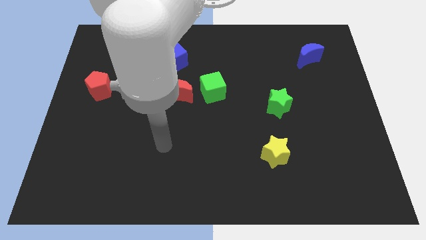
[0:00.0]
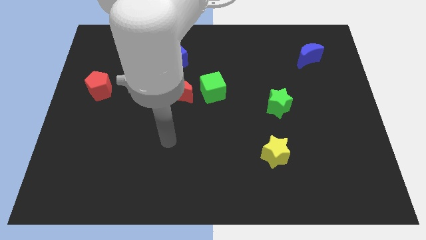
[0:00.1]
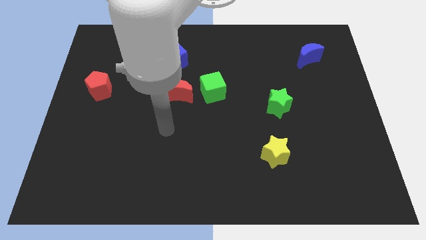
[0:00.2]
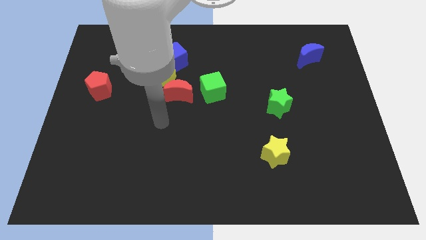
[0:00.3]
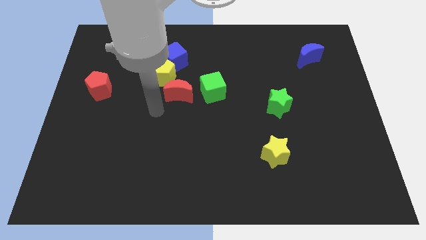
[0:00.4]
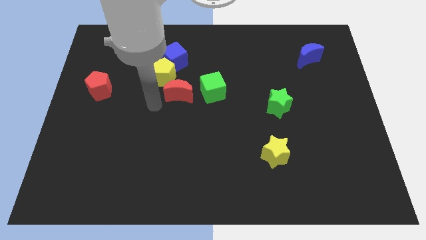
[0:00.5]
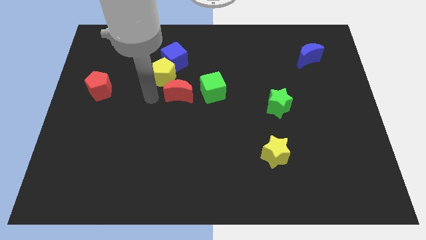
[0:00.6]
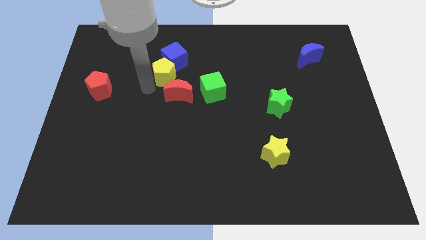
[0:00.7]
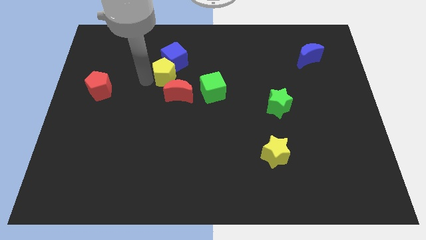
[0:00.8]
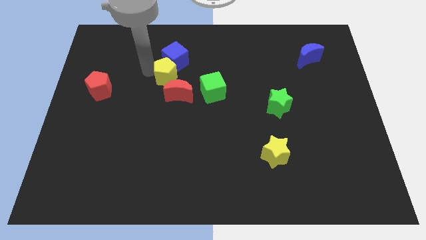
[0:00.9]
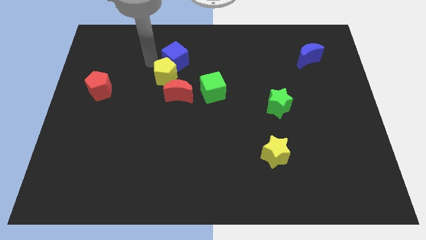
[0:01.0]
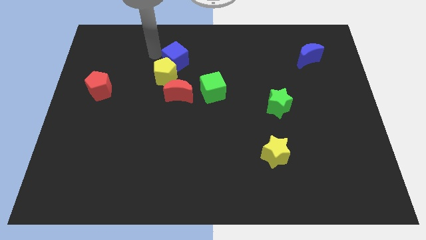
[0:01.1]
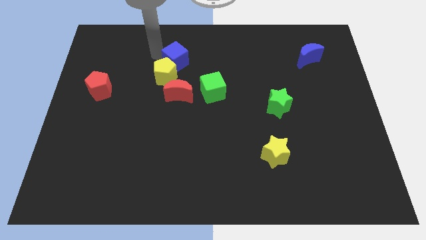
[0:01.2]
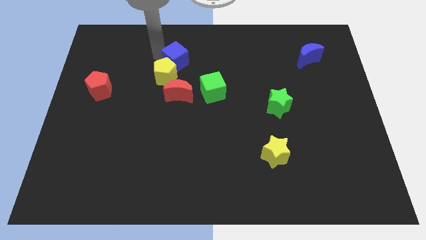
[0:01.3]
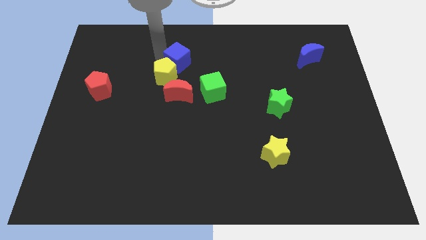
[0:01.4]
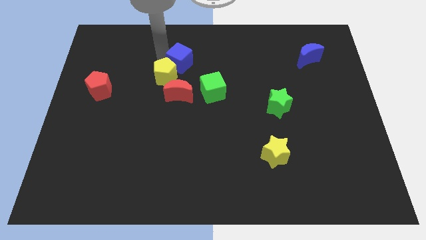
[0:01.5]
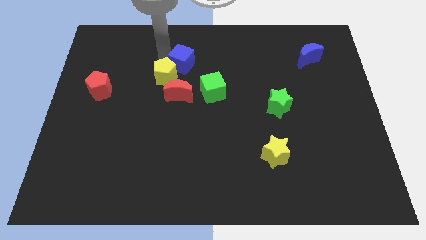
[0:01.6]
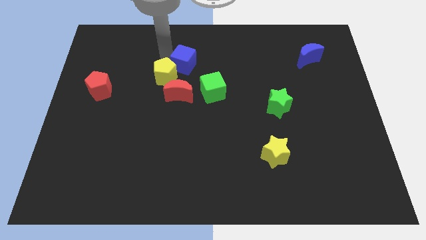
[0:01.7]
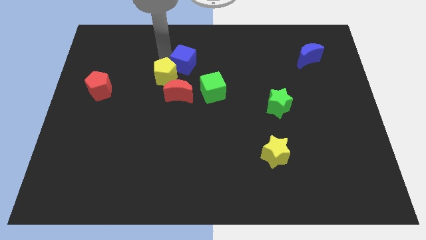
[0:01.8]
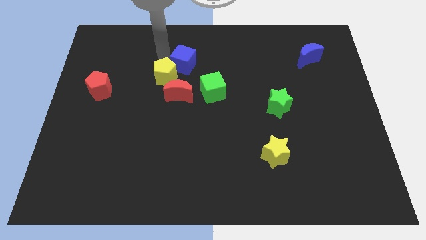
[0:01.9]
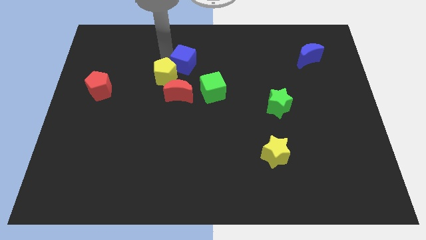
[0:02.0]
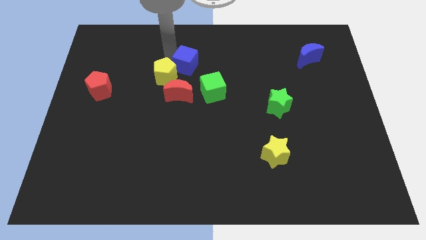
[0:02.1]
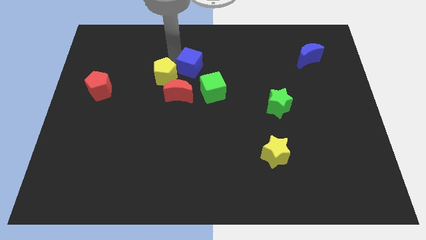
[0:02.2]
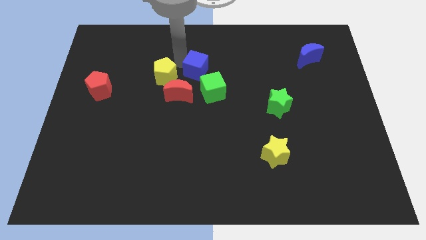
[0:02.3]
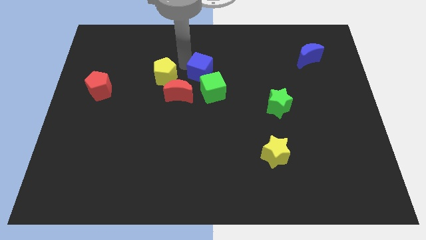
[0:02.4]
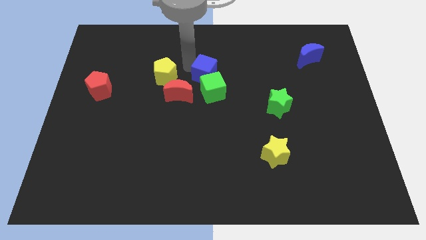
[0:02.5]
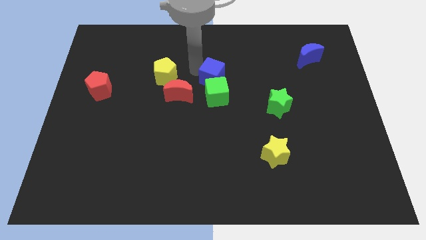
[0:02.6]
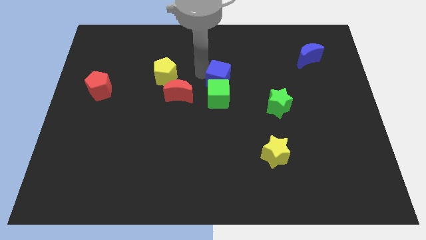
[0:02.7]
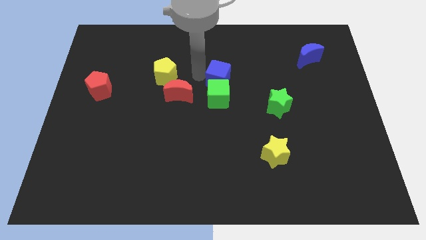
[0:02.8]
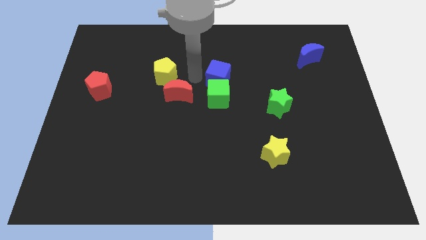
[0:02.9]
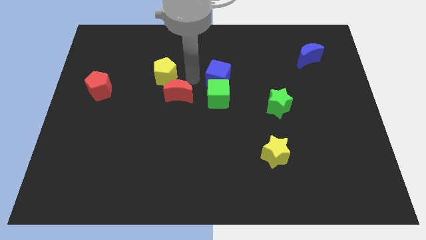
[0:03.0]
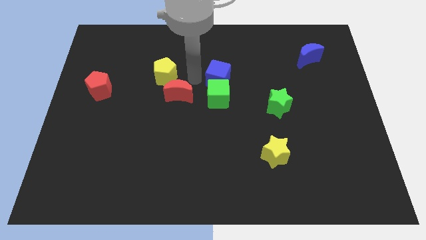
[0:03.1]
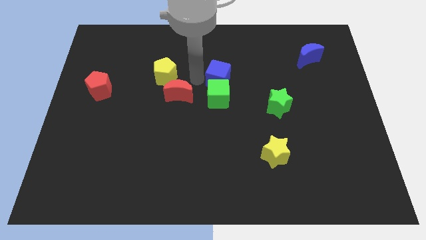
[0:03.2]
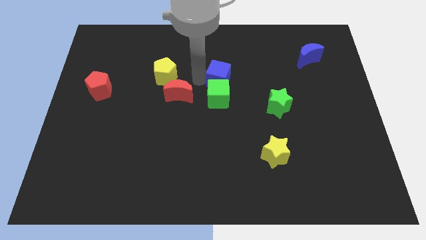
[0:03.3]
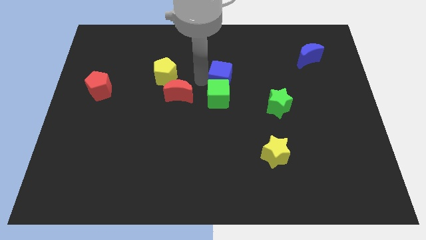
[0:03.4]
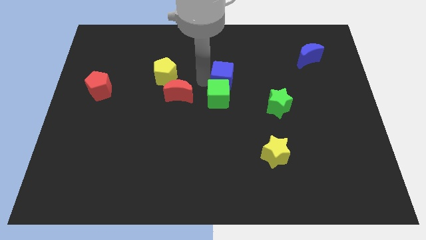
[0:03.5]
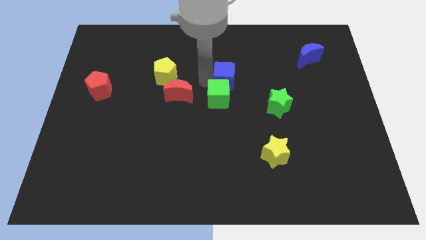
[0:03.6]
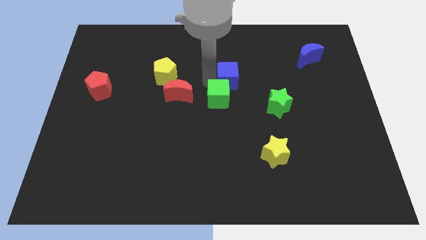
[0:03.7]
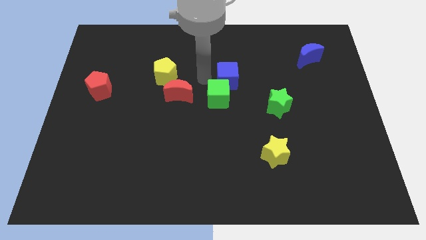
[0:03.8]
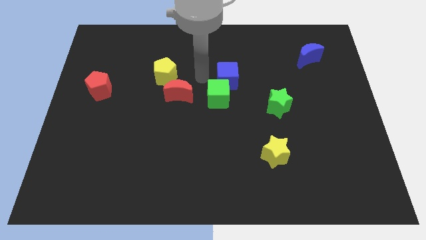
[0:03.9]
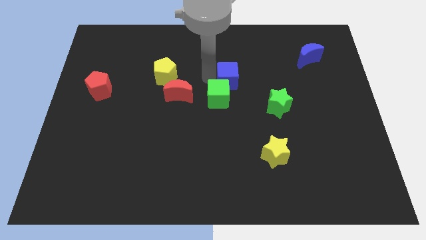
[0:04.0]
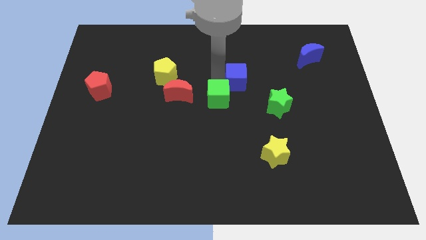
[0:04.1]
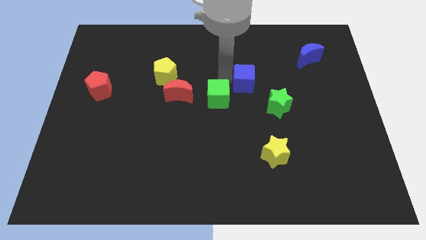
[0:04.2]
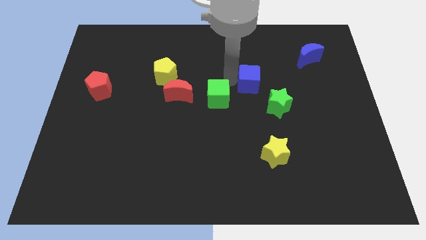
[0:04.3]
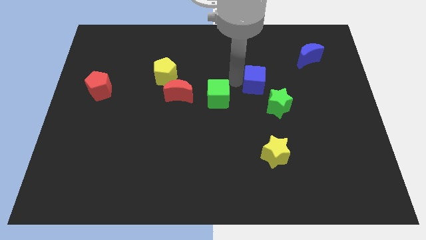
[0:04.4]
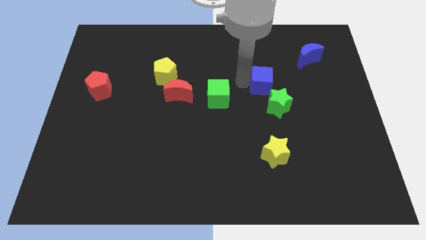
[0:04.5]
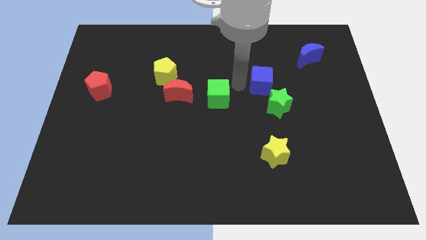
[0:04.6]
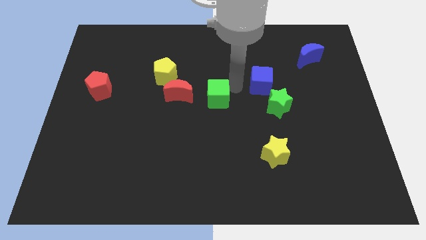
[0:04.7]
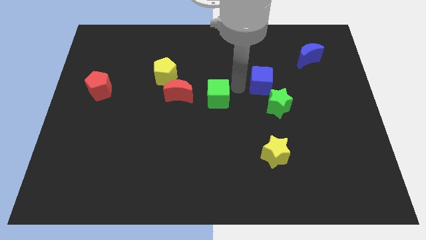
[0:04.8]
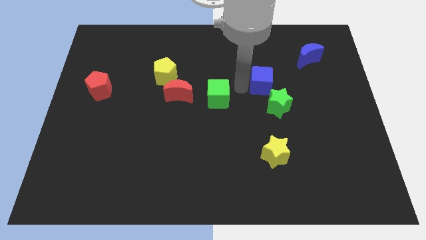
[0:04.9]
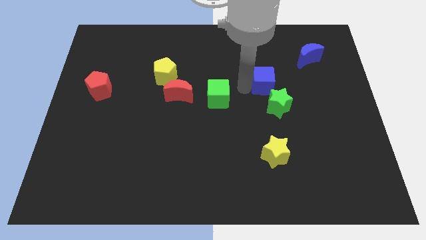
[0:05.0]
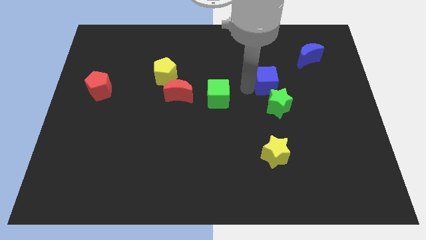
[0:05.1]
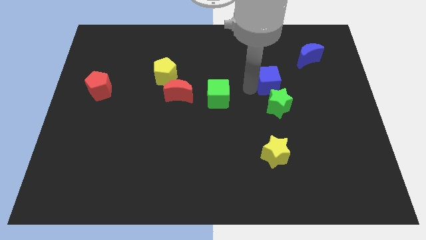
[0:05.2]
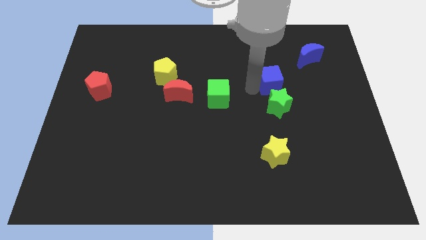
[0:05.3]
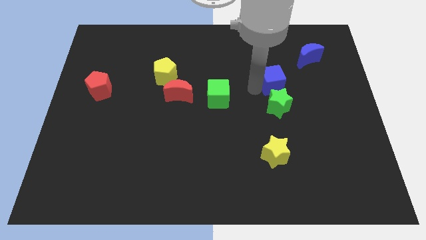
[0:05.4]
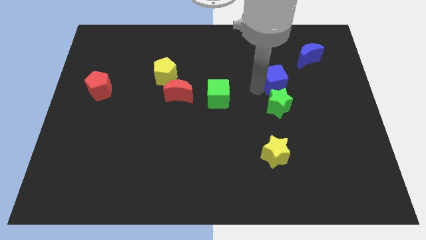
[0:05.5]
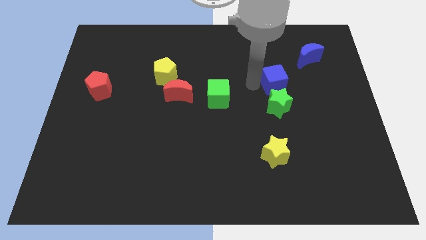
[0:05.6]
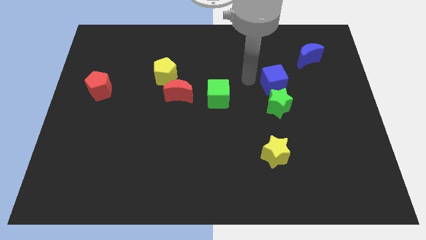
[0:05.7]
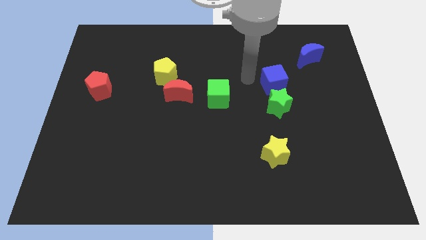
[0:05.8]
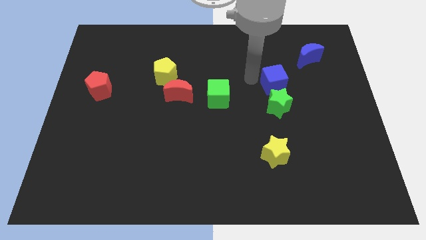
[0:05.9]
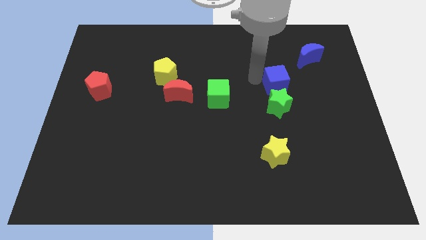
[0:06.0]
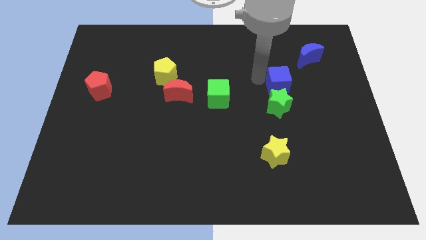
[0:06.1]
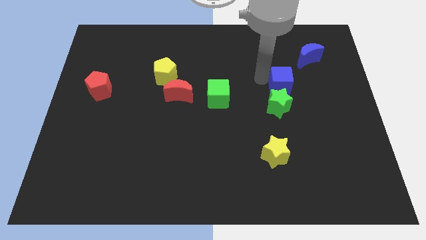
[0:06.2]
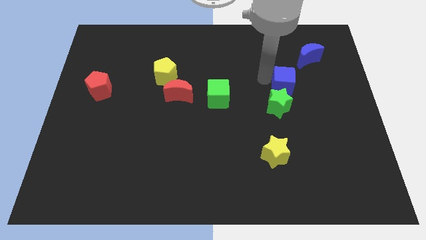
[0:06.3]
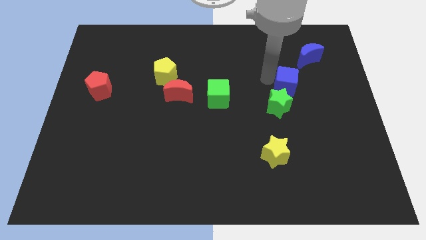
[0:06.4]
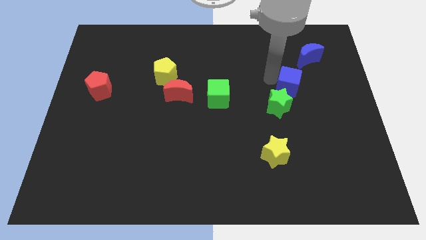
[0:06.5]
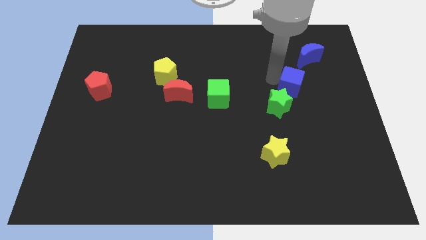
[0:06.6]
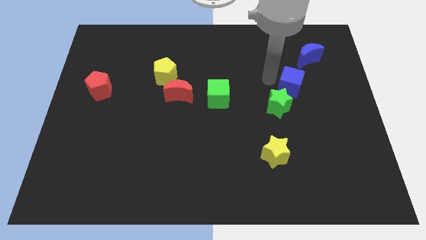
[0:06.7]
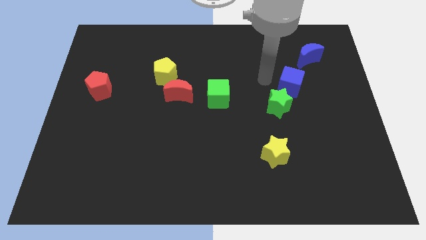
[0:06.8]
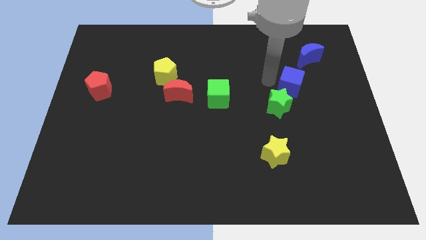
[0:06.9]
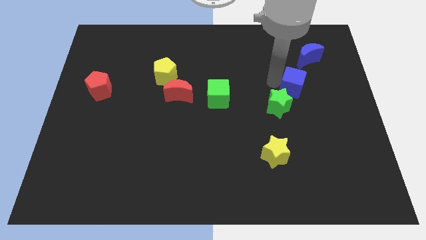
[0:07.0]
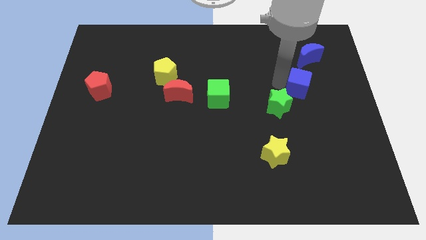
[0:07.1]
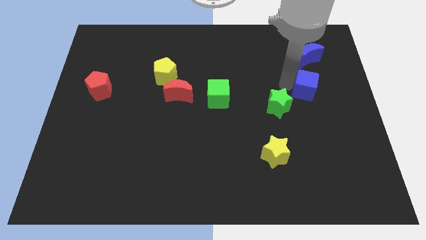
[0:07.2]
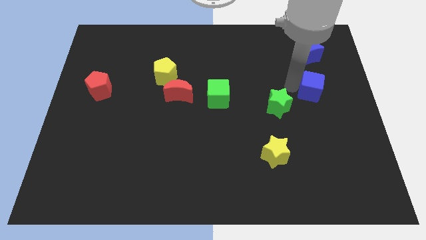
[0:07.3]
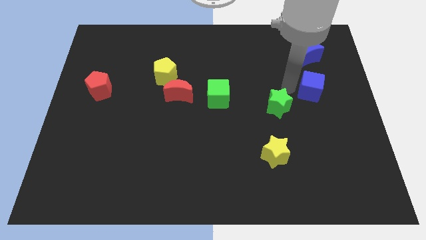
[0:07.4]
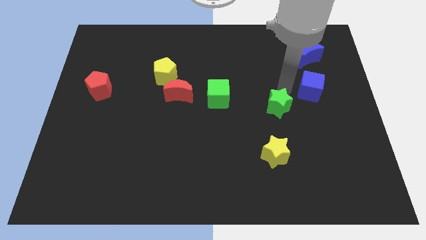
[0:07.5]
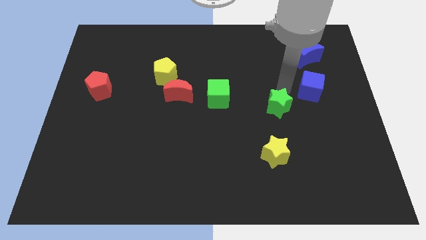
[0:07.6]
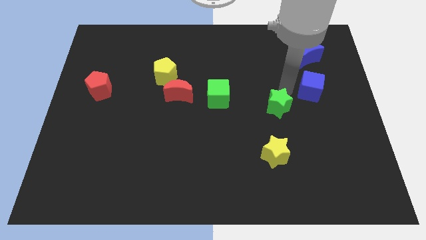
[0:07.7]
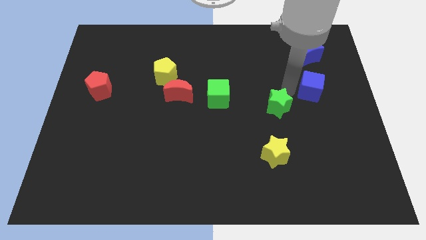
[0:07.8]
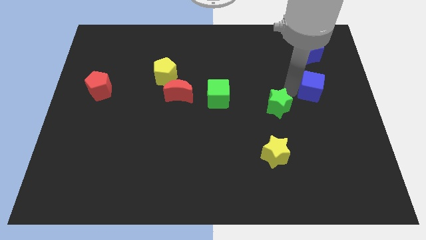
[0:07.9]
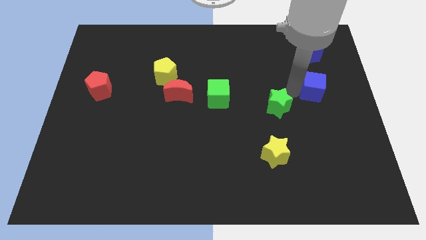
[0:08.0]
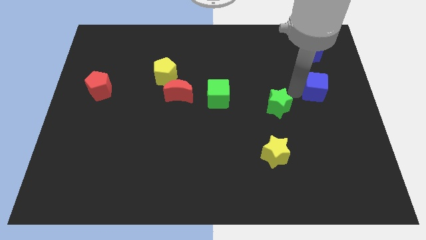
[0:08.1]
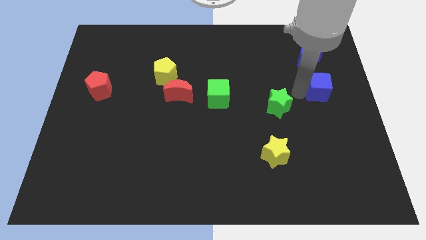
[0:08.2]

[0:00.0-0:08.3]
slide the blue cube to the right side
